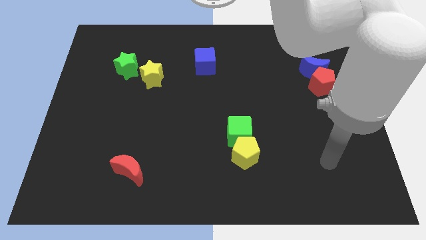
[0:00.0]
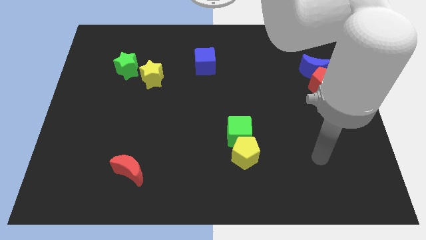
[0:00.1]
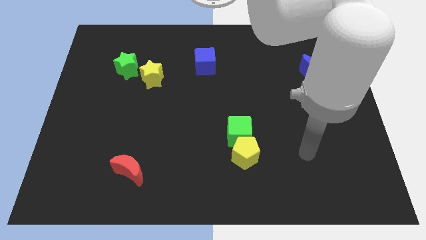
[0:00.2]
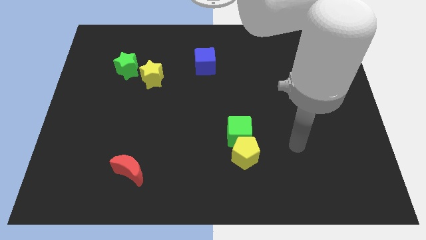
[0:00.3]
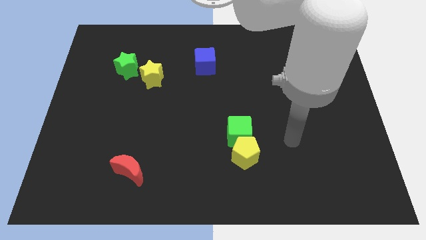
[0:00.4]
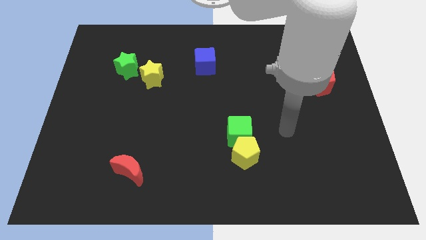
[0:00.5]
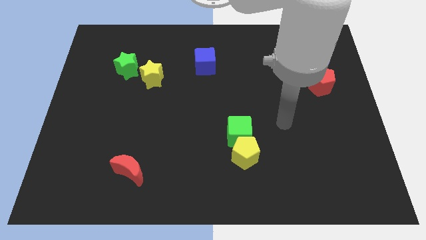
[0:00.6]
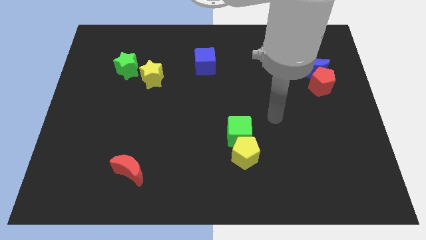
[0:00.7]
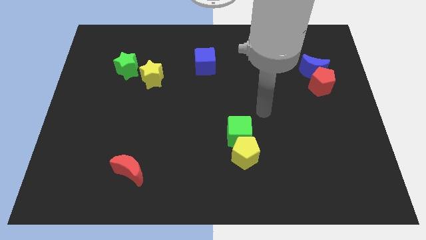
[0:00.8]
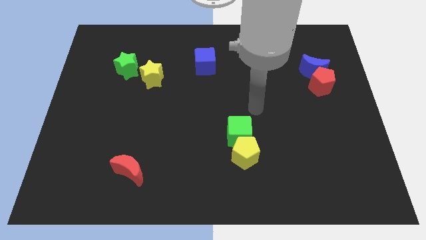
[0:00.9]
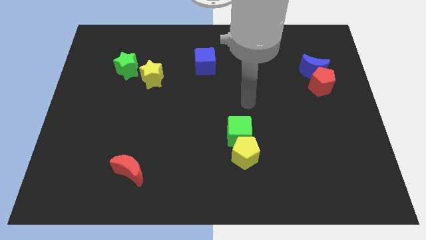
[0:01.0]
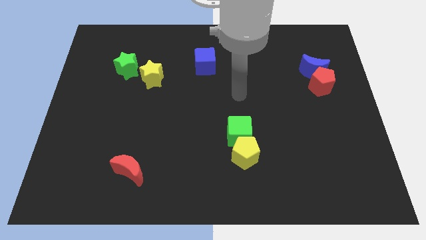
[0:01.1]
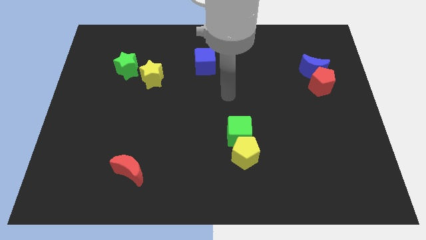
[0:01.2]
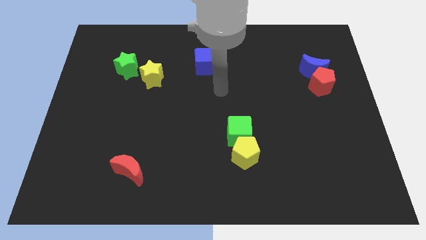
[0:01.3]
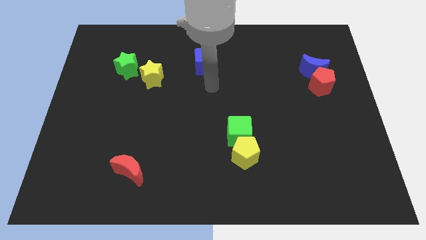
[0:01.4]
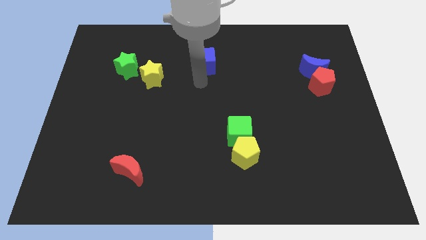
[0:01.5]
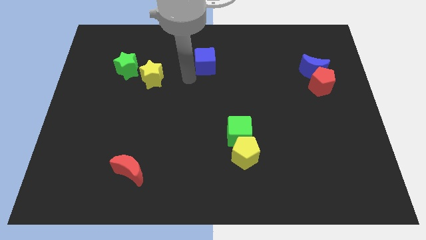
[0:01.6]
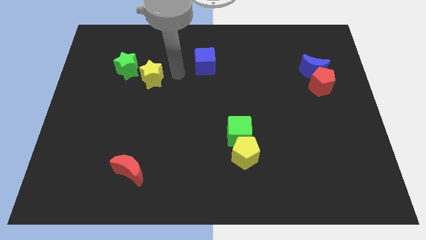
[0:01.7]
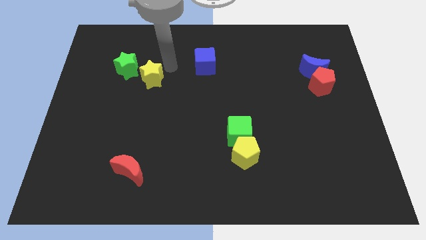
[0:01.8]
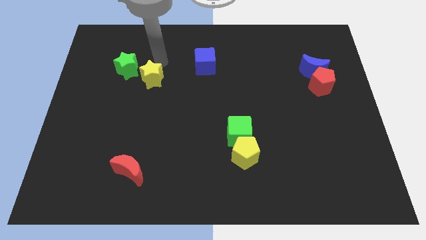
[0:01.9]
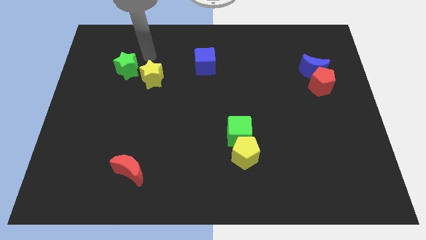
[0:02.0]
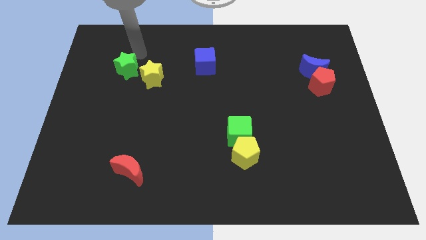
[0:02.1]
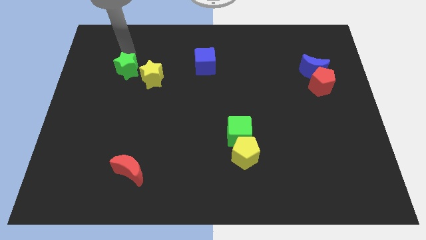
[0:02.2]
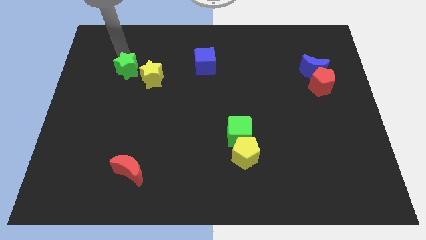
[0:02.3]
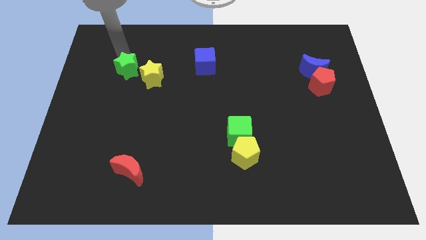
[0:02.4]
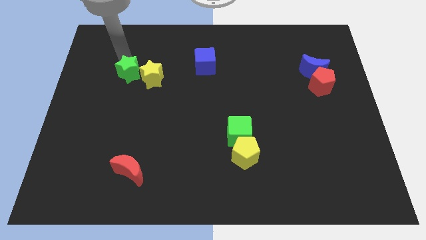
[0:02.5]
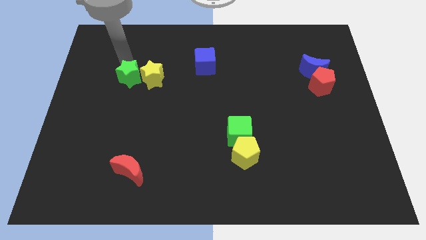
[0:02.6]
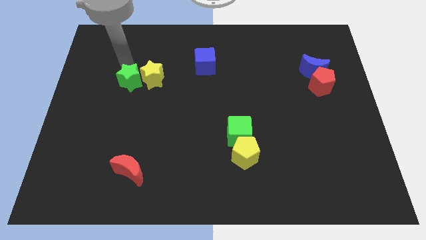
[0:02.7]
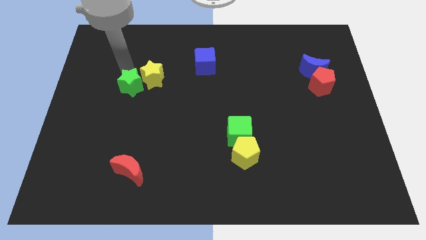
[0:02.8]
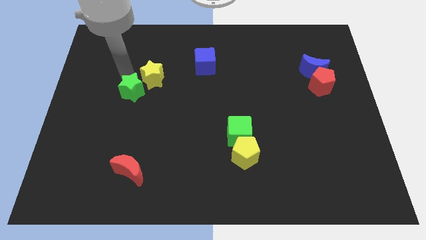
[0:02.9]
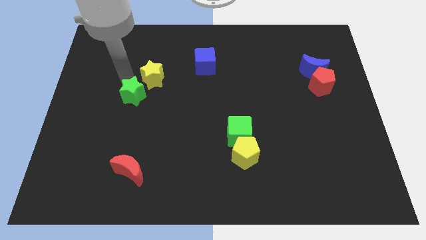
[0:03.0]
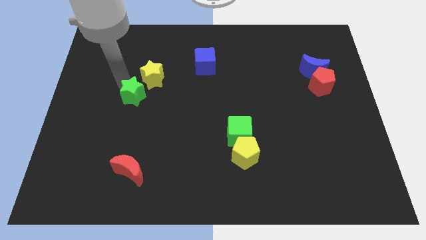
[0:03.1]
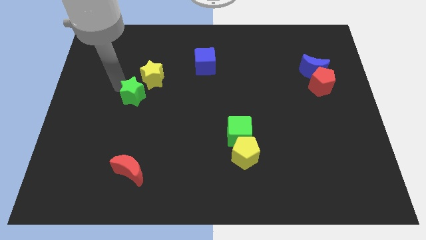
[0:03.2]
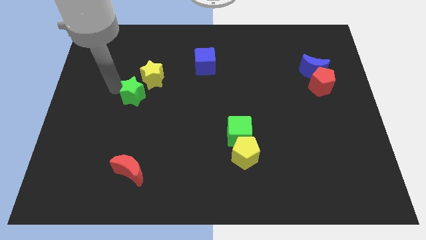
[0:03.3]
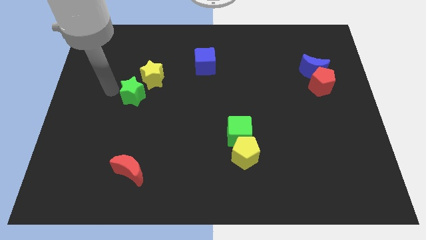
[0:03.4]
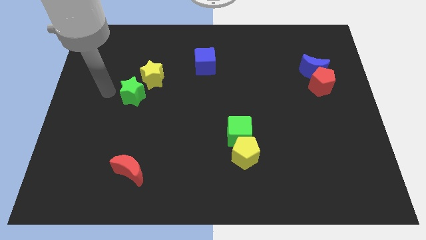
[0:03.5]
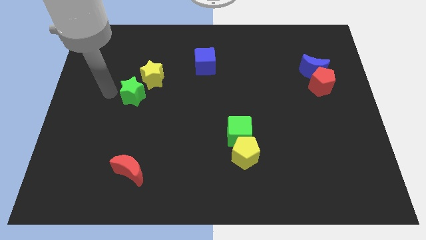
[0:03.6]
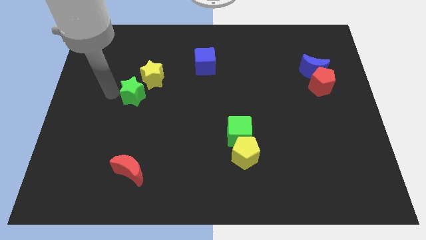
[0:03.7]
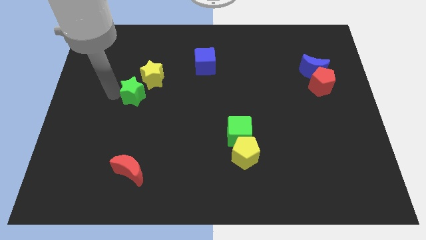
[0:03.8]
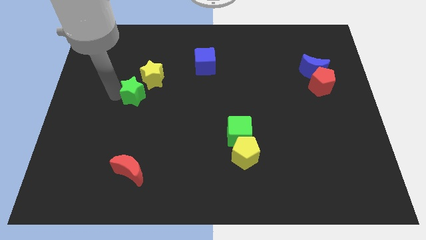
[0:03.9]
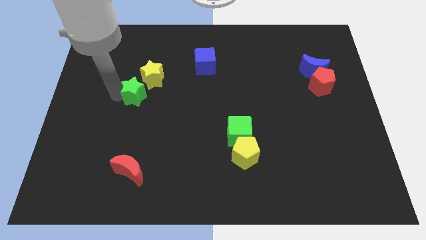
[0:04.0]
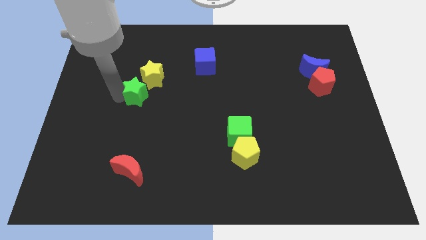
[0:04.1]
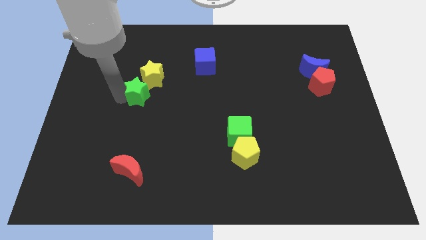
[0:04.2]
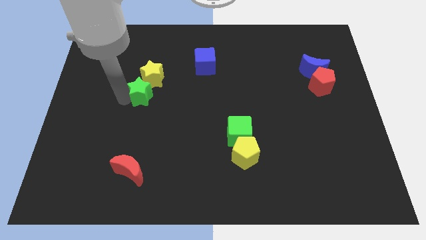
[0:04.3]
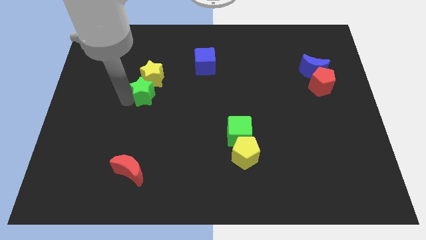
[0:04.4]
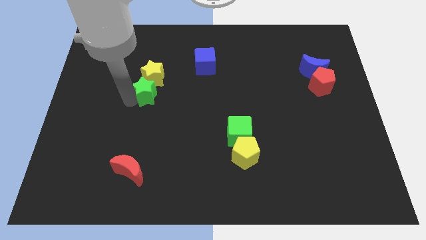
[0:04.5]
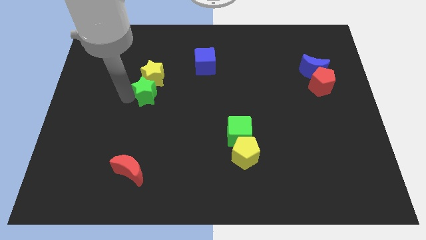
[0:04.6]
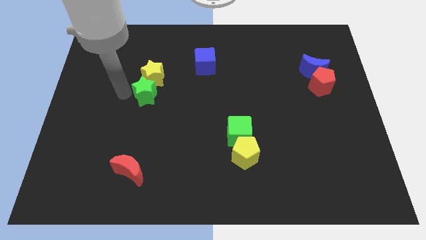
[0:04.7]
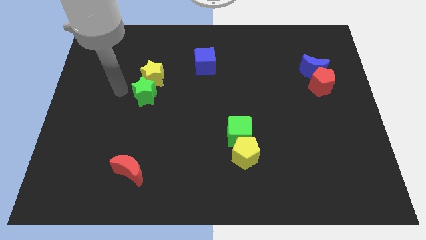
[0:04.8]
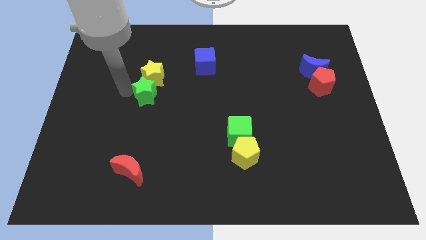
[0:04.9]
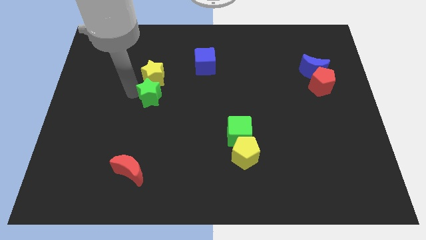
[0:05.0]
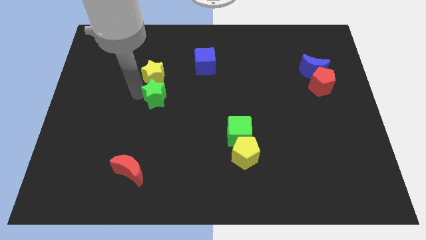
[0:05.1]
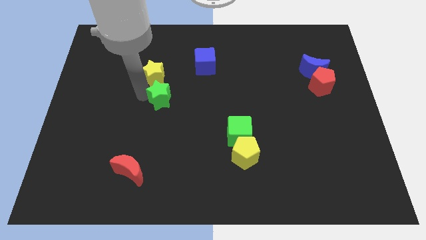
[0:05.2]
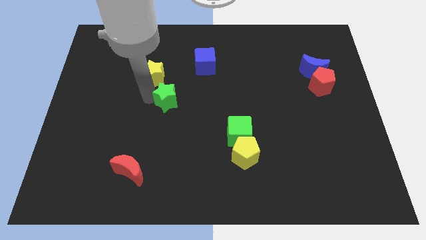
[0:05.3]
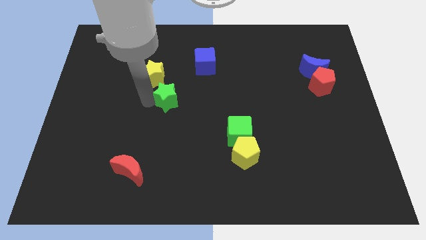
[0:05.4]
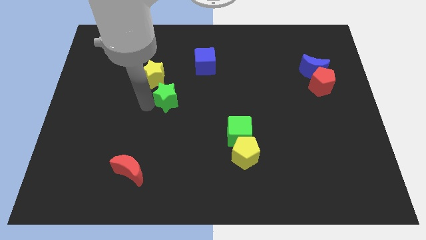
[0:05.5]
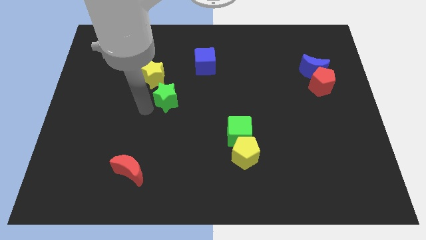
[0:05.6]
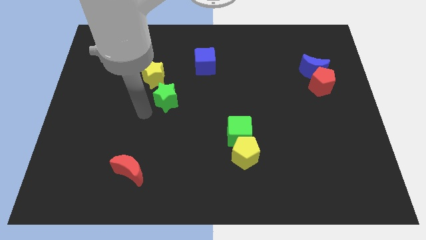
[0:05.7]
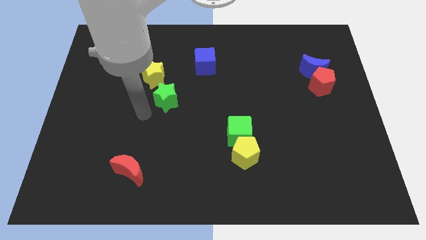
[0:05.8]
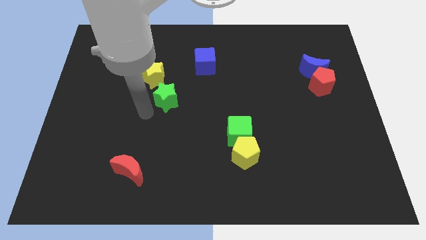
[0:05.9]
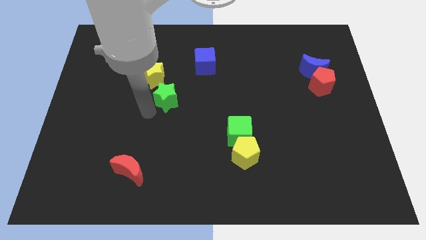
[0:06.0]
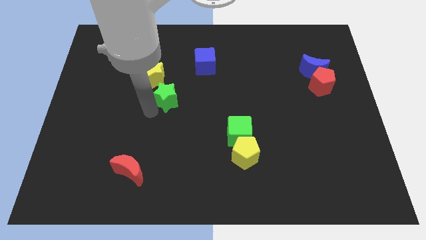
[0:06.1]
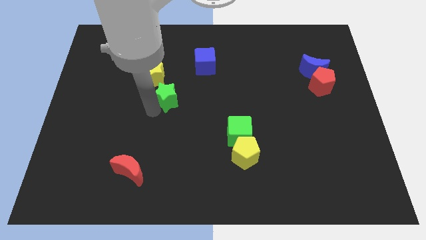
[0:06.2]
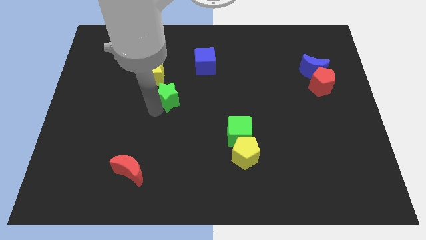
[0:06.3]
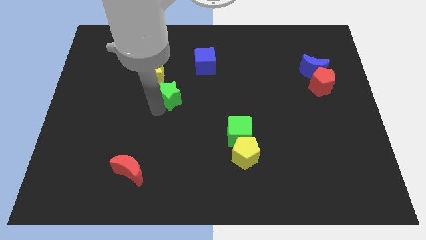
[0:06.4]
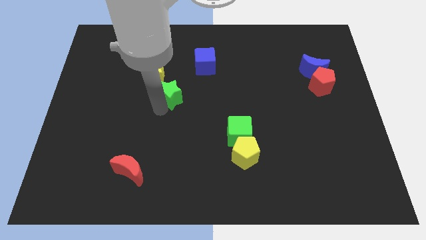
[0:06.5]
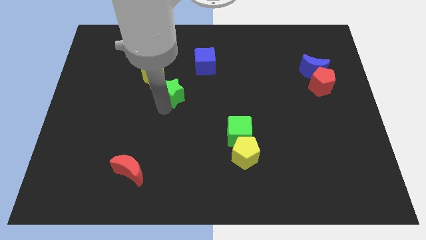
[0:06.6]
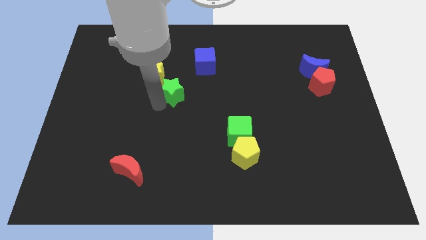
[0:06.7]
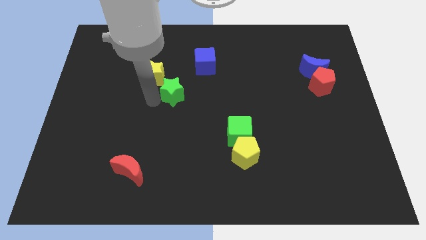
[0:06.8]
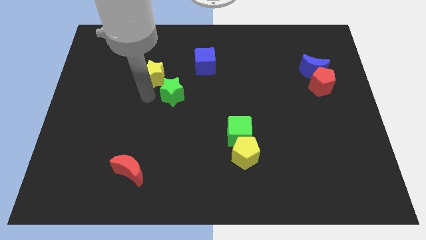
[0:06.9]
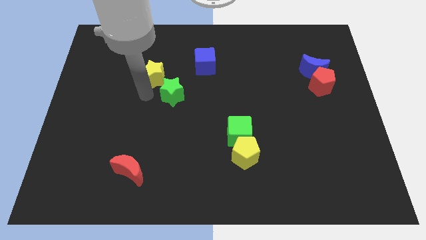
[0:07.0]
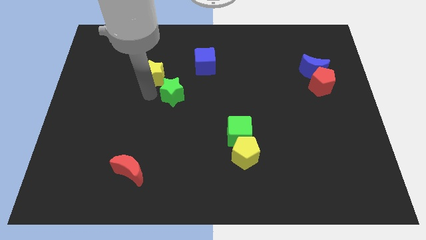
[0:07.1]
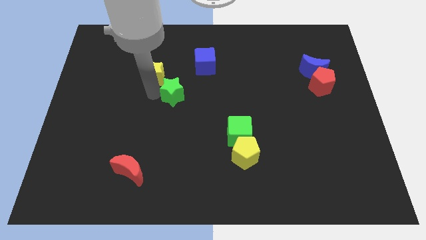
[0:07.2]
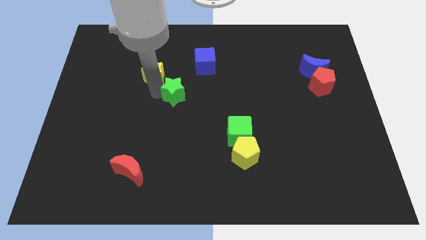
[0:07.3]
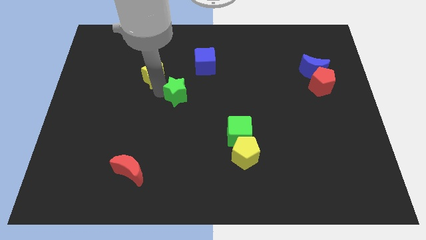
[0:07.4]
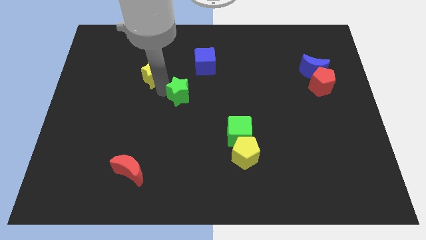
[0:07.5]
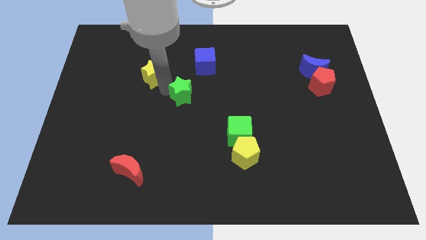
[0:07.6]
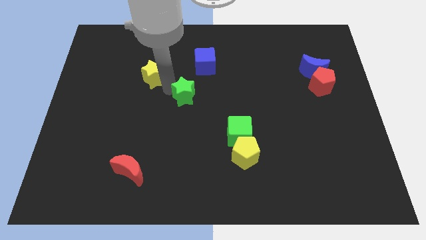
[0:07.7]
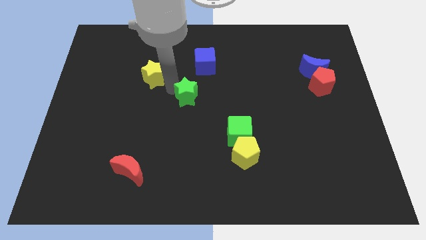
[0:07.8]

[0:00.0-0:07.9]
move the green star below the blue cube
